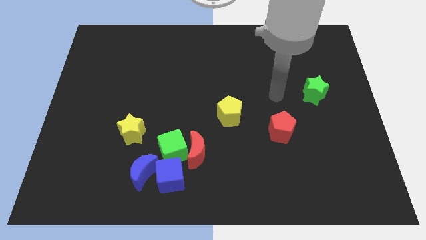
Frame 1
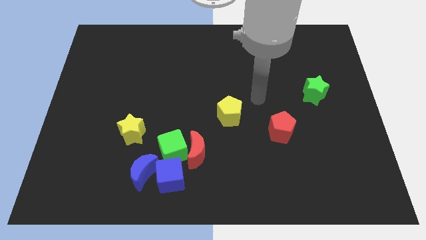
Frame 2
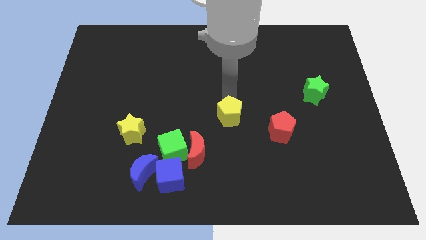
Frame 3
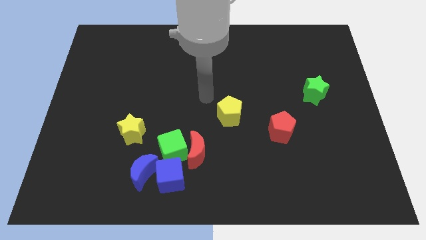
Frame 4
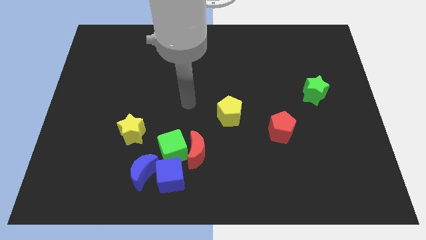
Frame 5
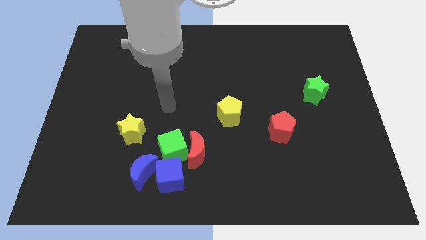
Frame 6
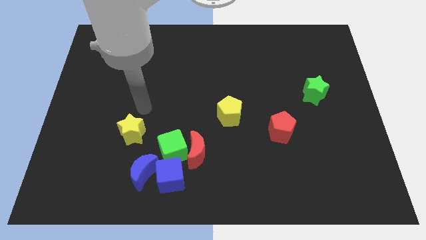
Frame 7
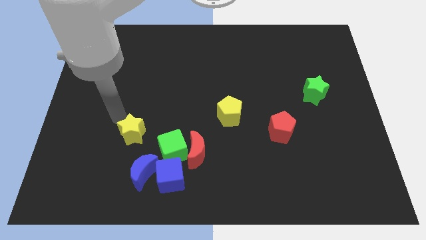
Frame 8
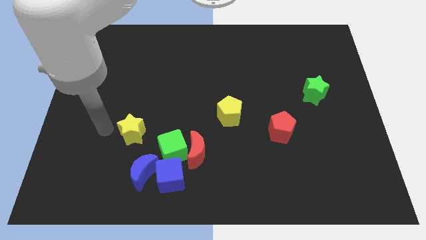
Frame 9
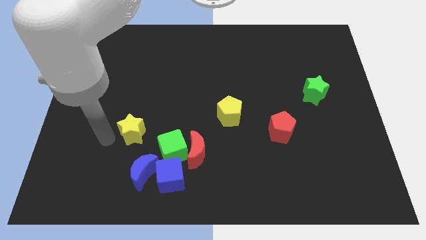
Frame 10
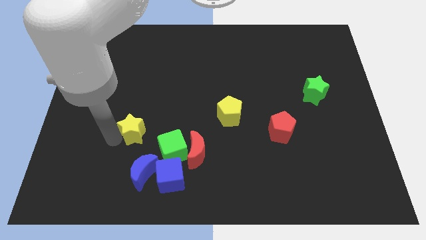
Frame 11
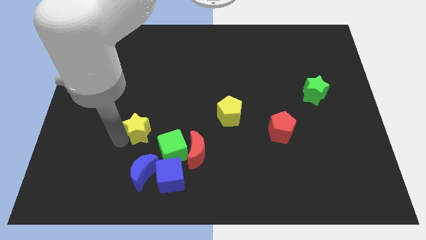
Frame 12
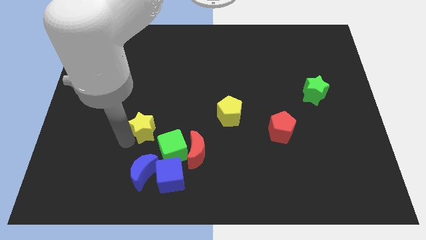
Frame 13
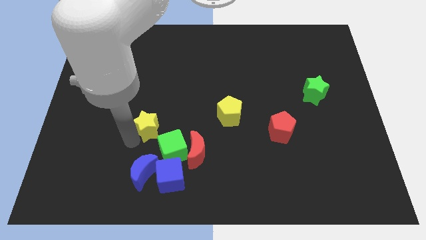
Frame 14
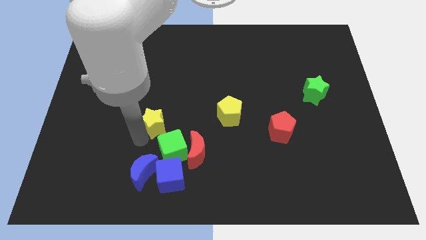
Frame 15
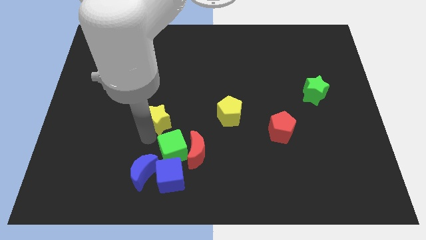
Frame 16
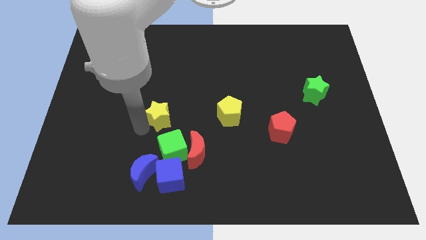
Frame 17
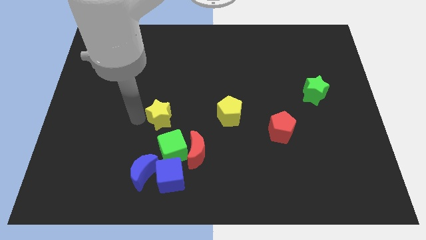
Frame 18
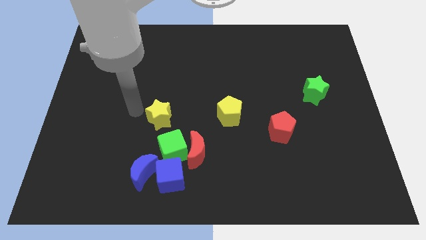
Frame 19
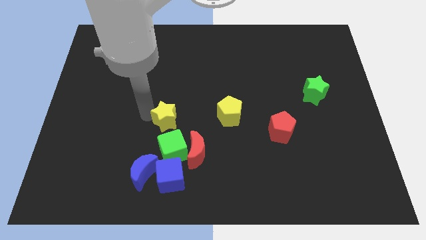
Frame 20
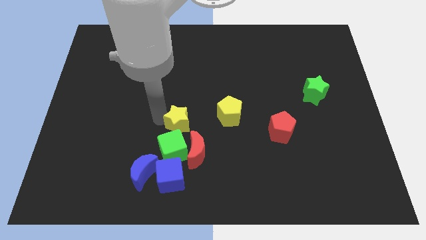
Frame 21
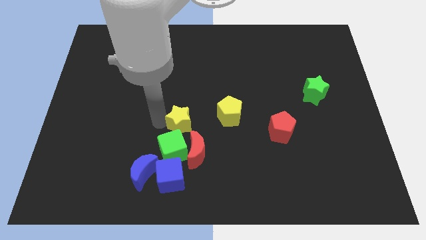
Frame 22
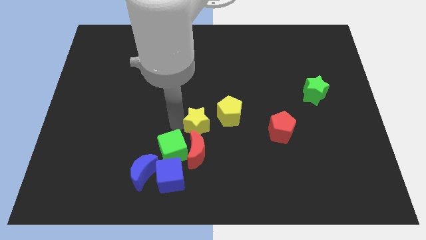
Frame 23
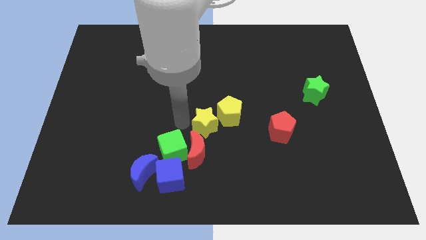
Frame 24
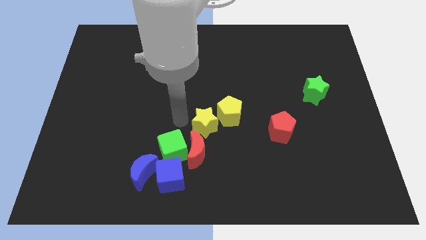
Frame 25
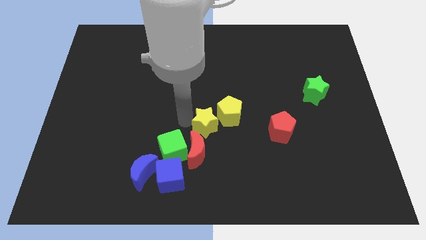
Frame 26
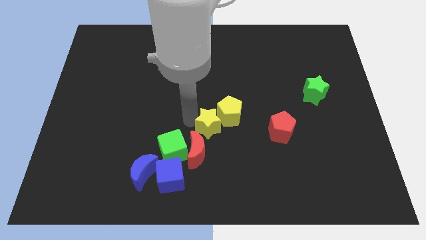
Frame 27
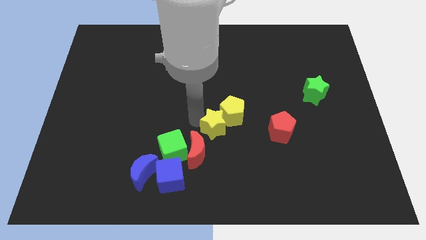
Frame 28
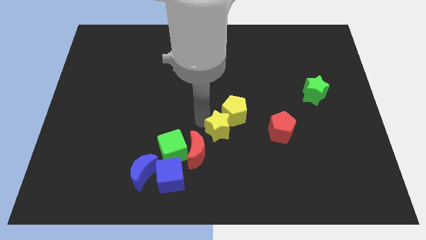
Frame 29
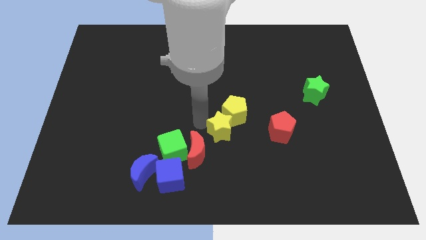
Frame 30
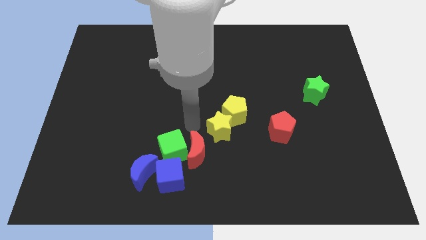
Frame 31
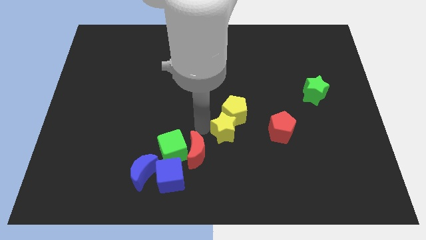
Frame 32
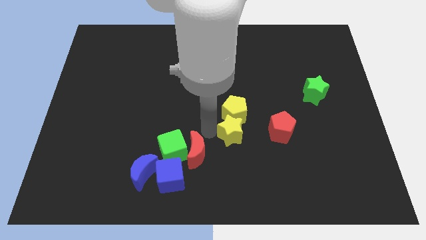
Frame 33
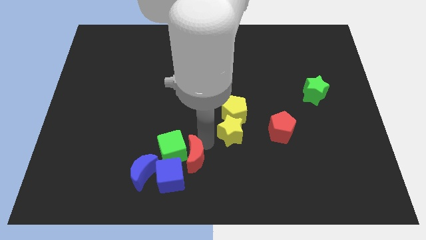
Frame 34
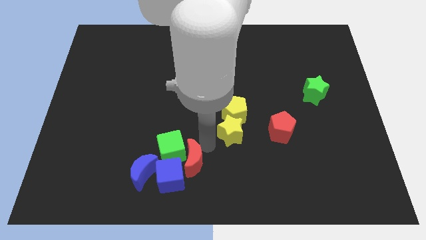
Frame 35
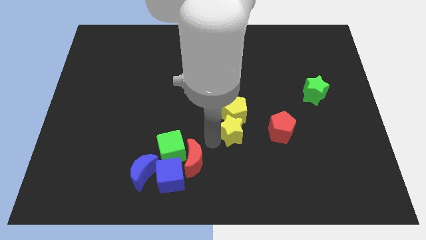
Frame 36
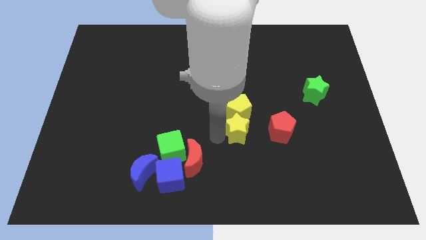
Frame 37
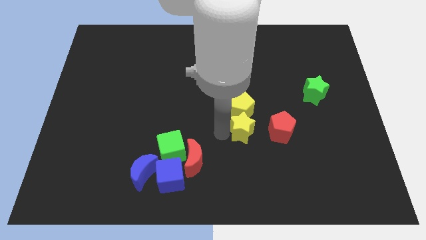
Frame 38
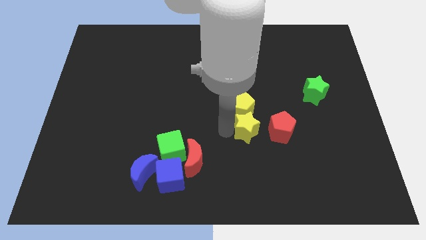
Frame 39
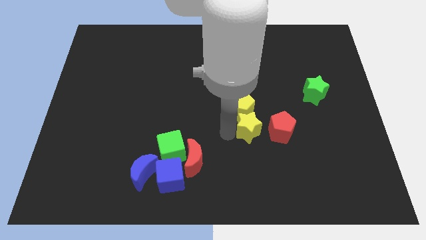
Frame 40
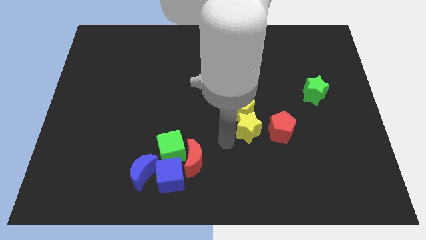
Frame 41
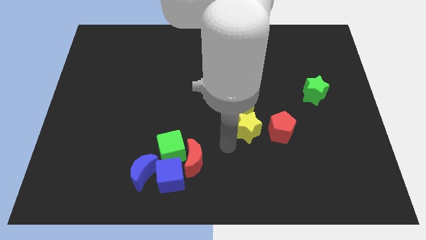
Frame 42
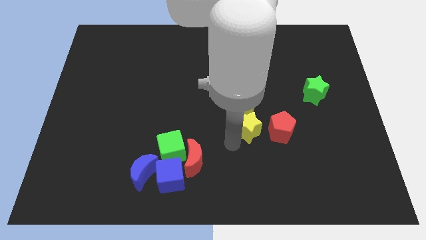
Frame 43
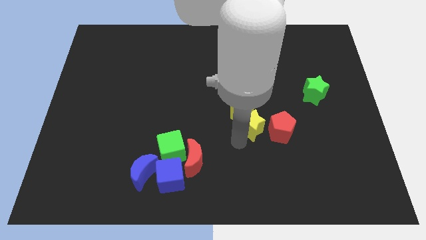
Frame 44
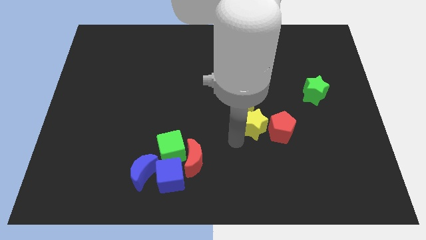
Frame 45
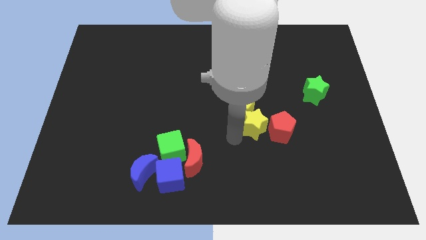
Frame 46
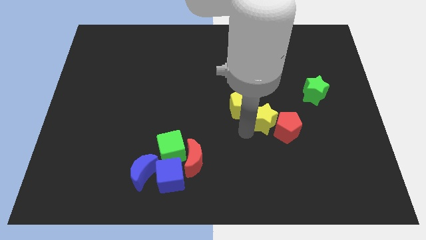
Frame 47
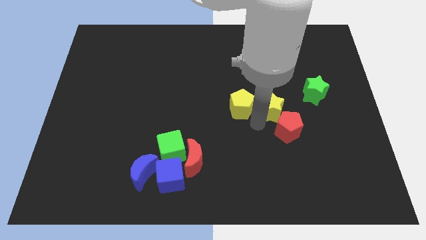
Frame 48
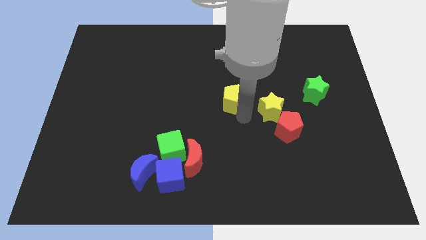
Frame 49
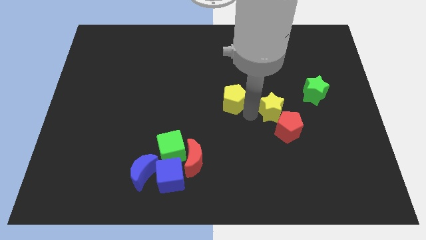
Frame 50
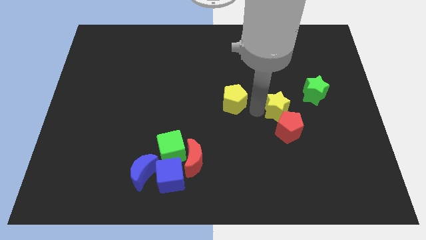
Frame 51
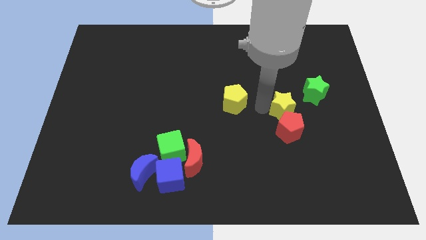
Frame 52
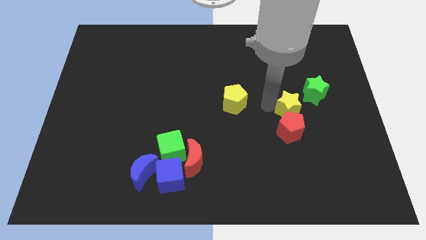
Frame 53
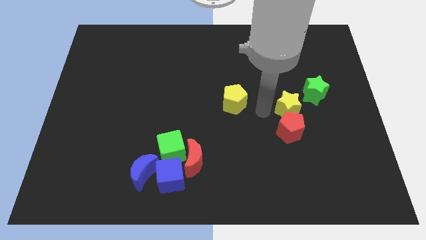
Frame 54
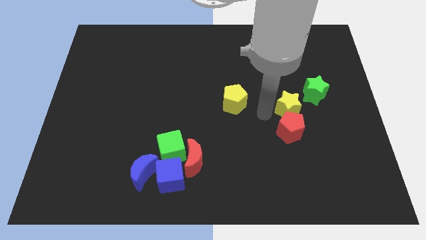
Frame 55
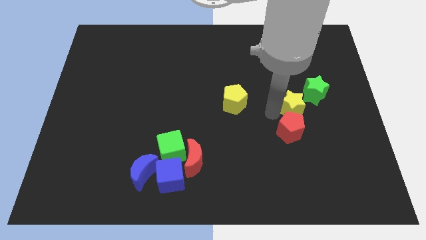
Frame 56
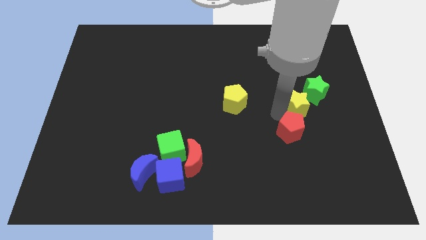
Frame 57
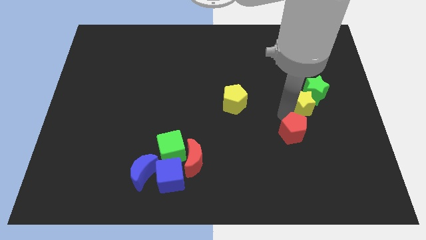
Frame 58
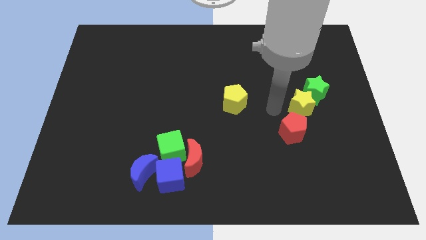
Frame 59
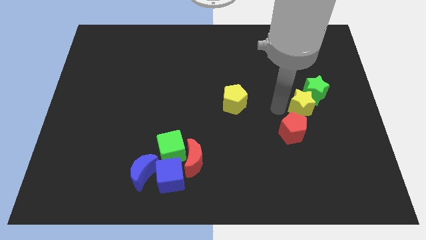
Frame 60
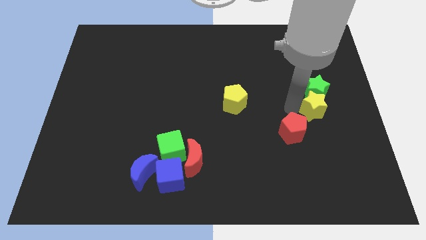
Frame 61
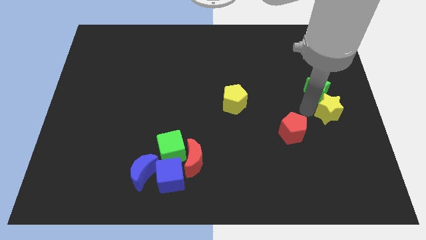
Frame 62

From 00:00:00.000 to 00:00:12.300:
put the yellow star to the right side of the board
